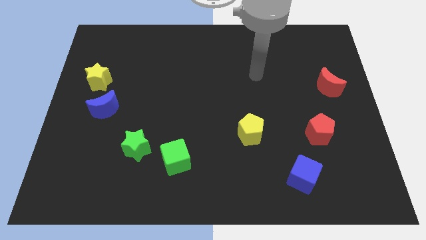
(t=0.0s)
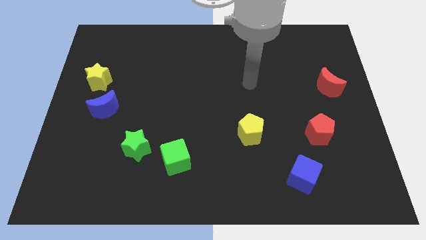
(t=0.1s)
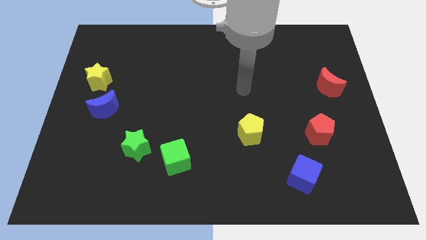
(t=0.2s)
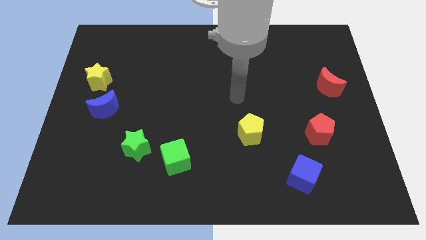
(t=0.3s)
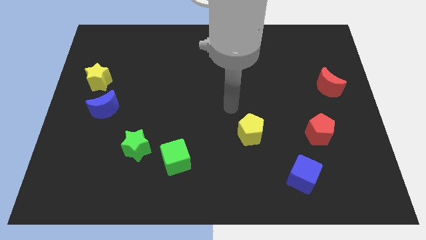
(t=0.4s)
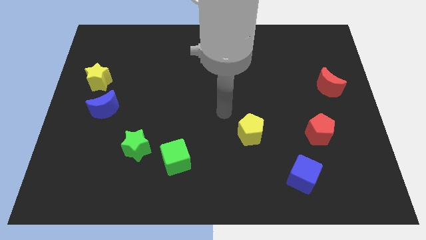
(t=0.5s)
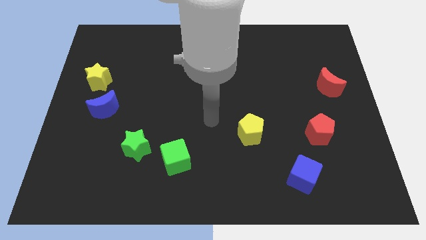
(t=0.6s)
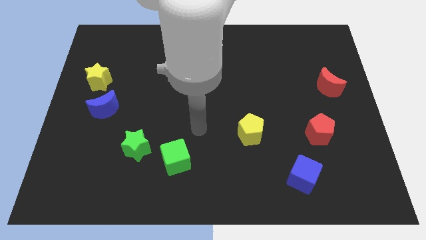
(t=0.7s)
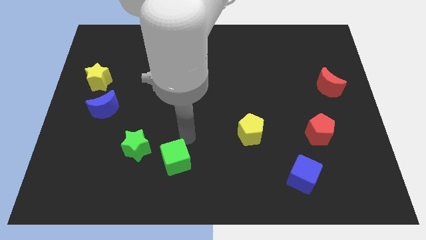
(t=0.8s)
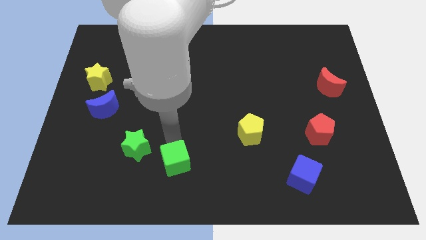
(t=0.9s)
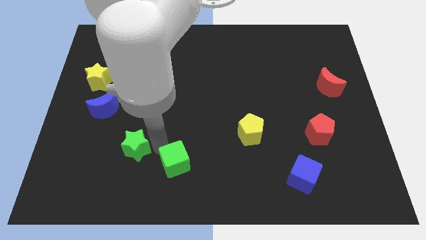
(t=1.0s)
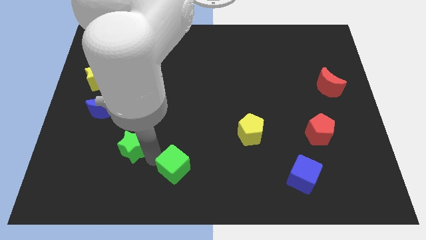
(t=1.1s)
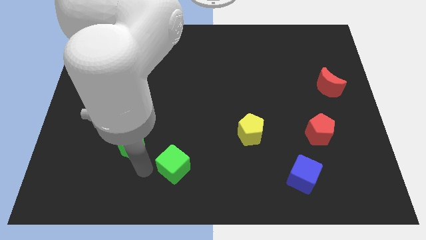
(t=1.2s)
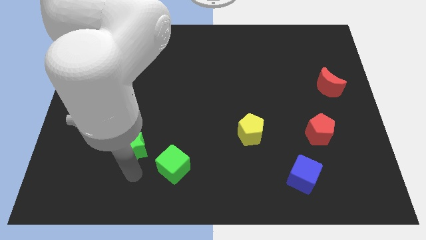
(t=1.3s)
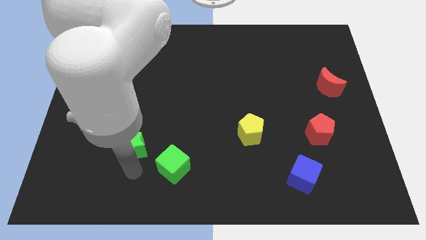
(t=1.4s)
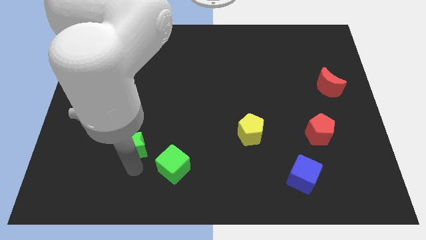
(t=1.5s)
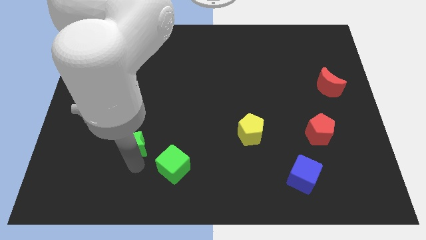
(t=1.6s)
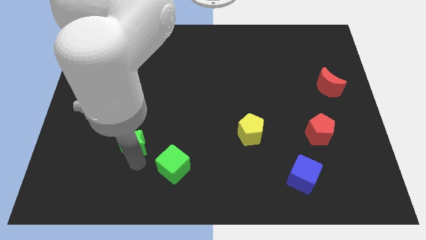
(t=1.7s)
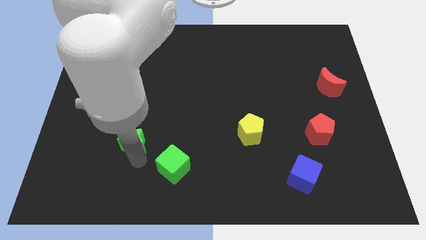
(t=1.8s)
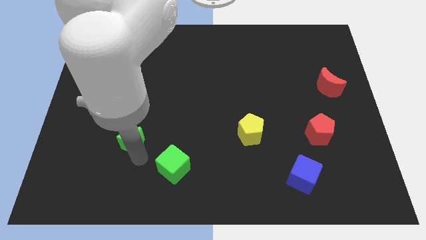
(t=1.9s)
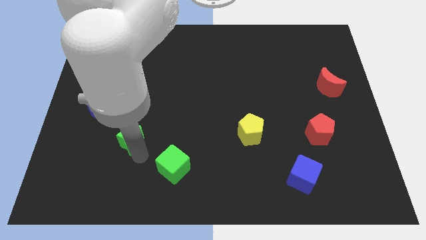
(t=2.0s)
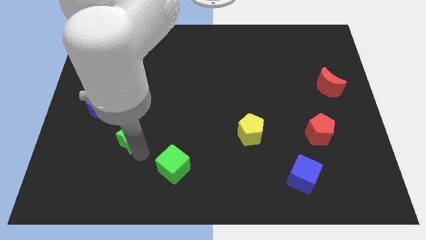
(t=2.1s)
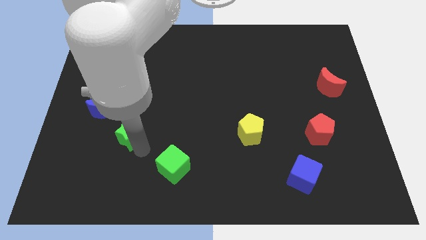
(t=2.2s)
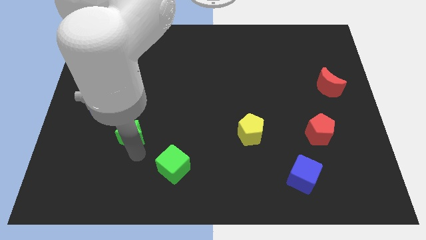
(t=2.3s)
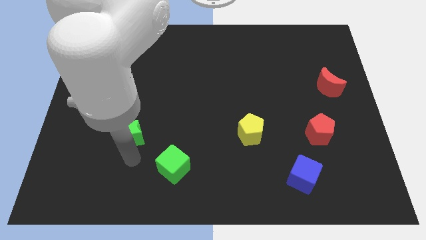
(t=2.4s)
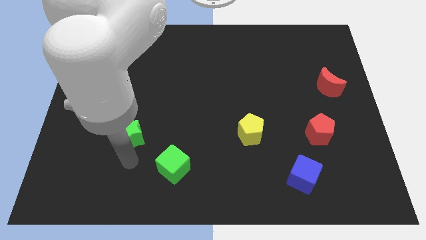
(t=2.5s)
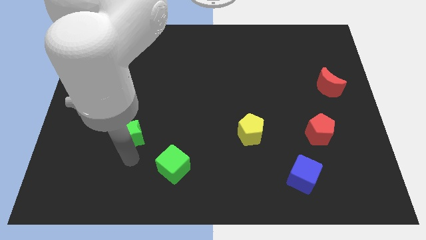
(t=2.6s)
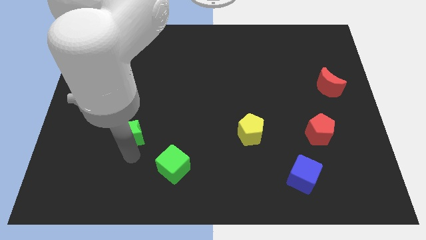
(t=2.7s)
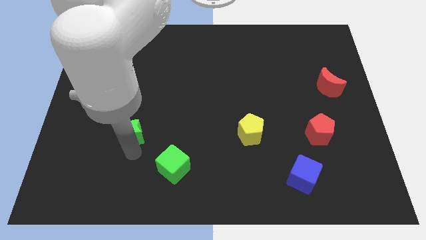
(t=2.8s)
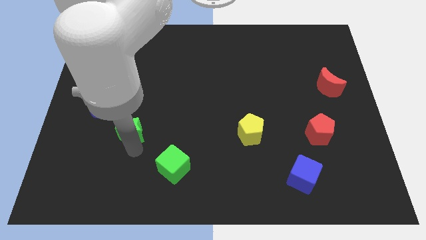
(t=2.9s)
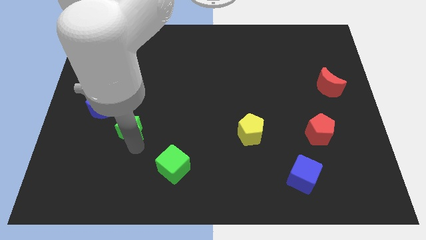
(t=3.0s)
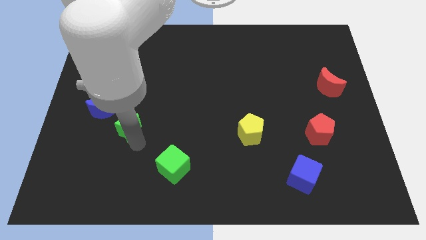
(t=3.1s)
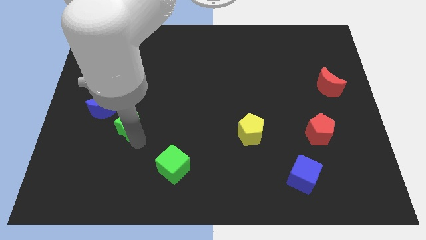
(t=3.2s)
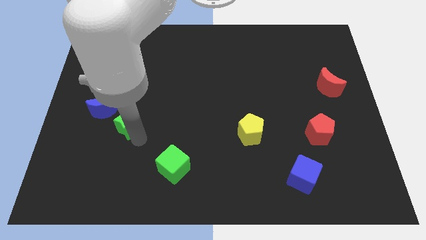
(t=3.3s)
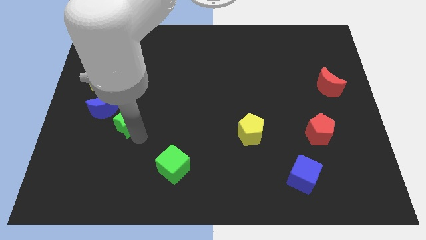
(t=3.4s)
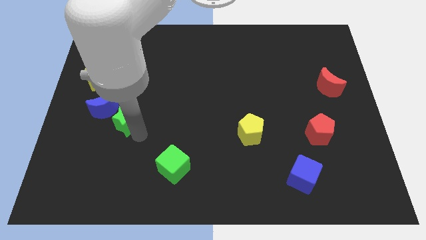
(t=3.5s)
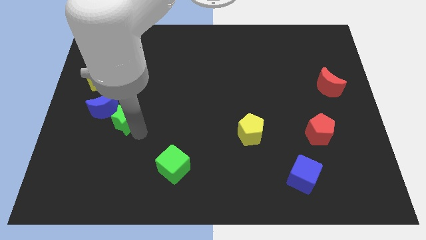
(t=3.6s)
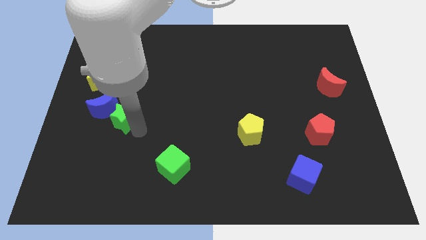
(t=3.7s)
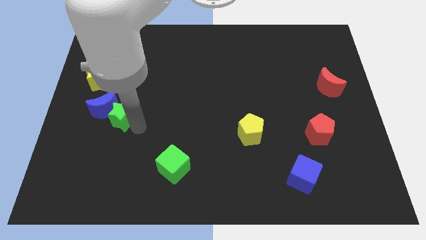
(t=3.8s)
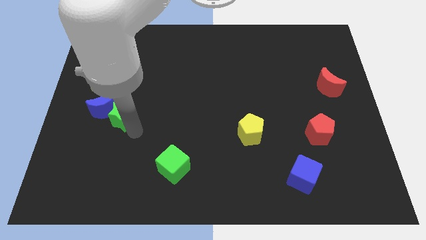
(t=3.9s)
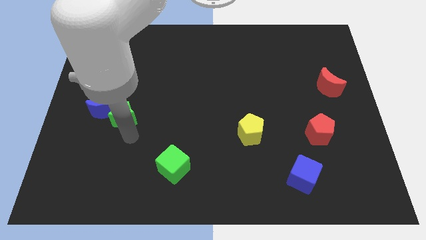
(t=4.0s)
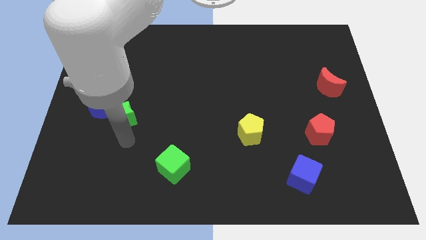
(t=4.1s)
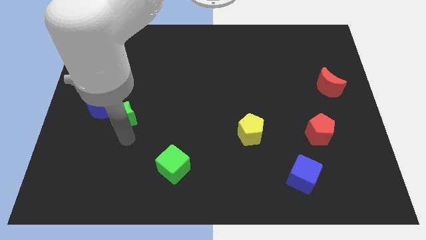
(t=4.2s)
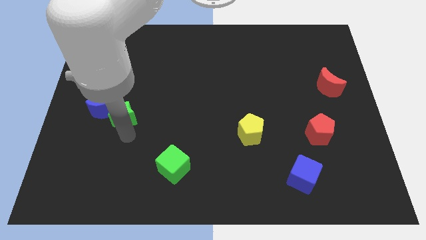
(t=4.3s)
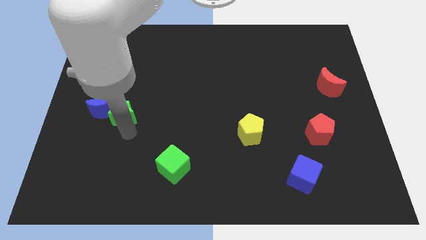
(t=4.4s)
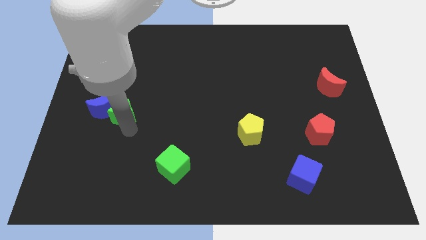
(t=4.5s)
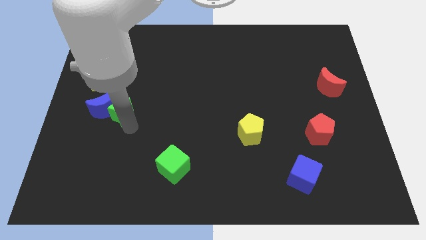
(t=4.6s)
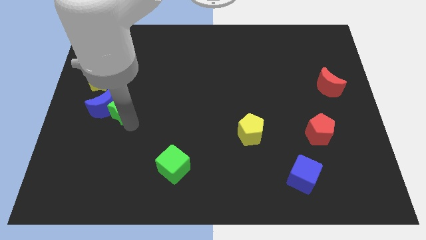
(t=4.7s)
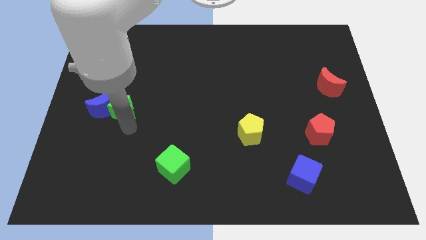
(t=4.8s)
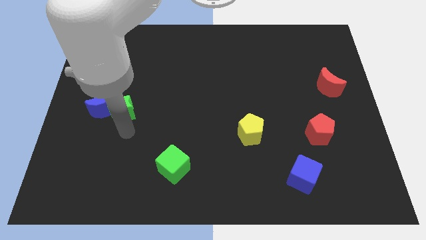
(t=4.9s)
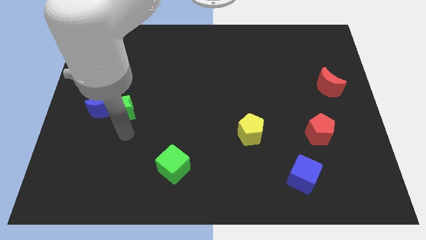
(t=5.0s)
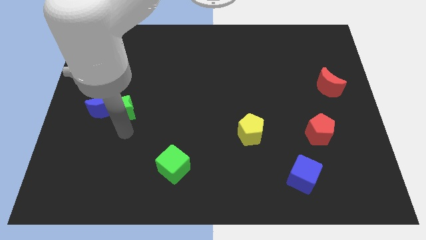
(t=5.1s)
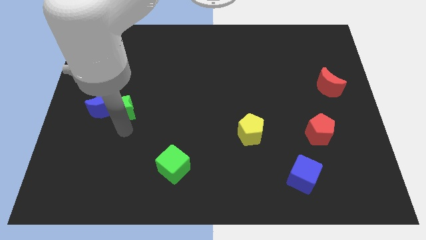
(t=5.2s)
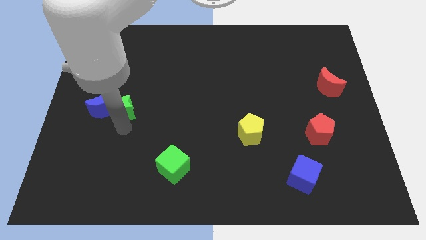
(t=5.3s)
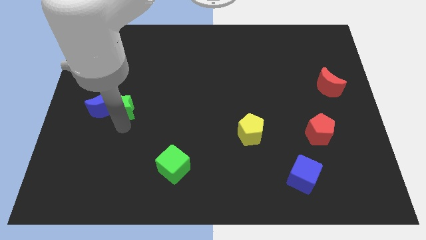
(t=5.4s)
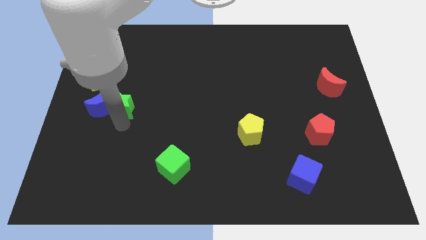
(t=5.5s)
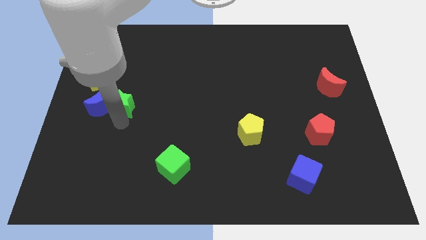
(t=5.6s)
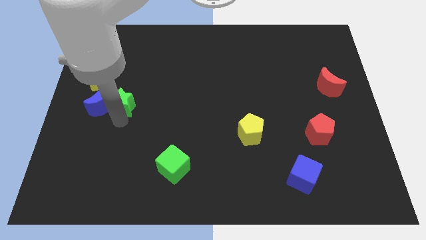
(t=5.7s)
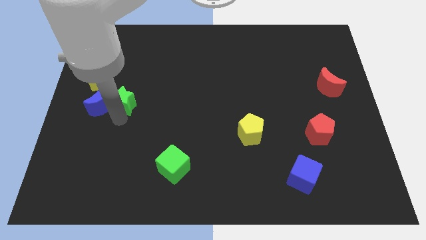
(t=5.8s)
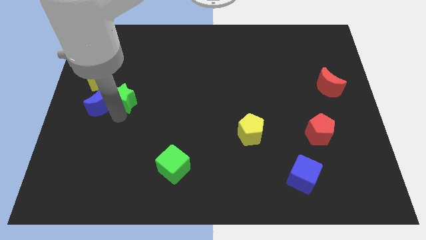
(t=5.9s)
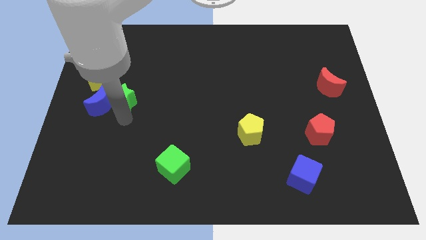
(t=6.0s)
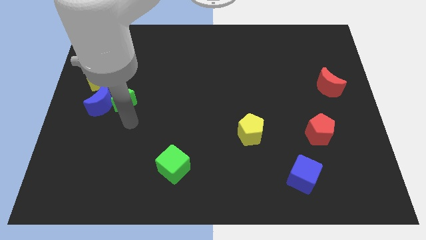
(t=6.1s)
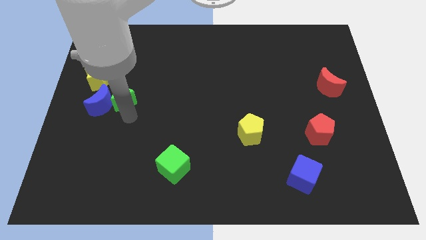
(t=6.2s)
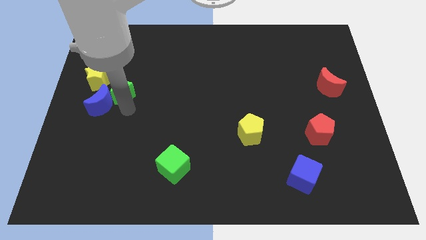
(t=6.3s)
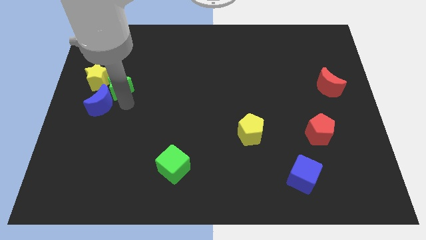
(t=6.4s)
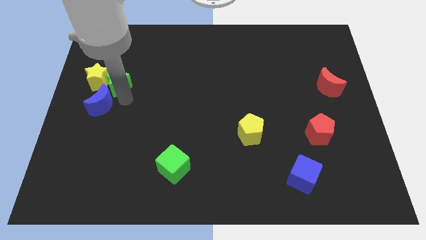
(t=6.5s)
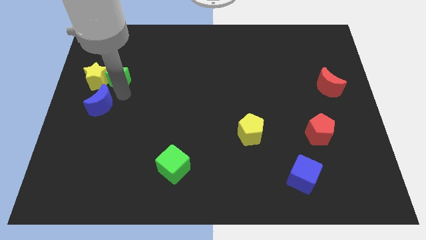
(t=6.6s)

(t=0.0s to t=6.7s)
push the green star to the top right of the yellow star
